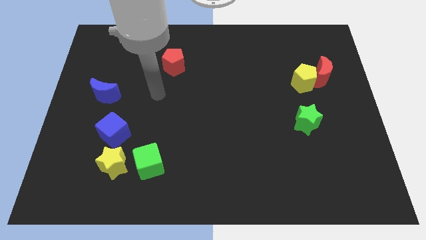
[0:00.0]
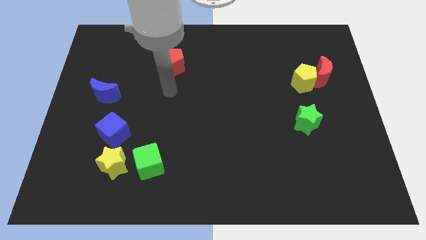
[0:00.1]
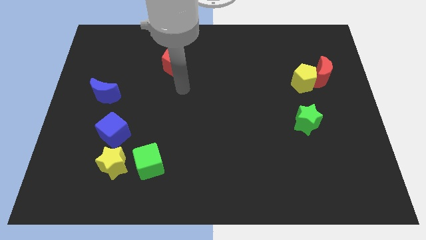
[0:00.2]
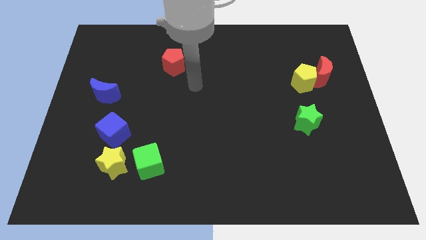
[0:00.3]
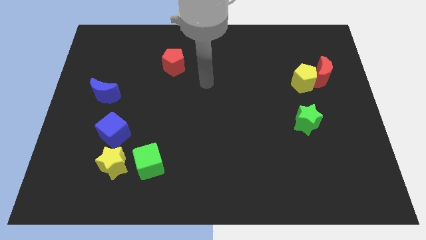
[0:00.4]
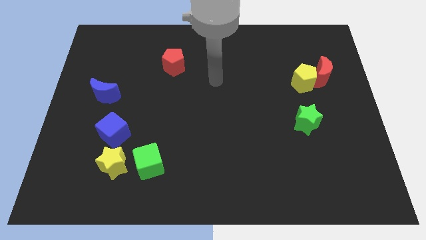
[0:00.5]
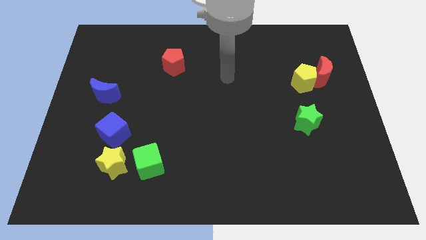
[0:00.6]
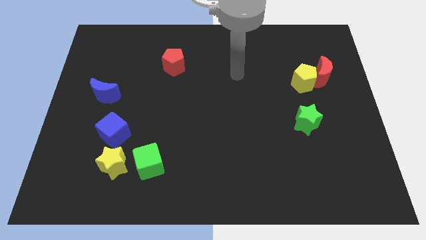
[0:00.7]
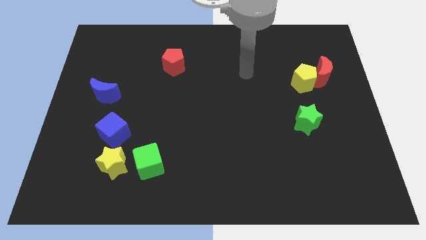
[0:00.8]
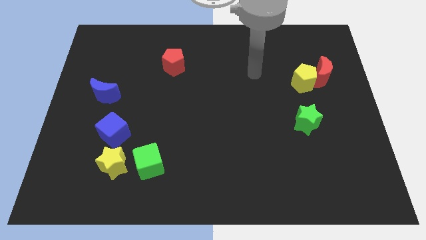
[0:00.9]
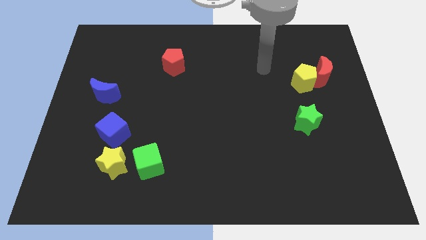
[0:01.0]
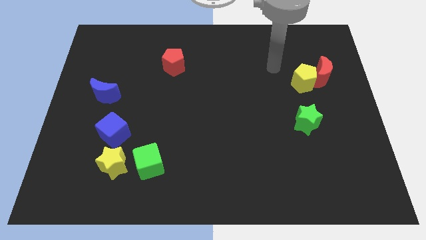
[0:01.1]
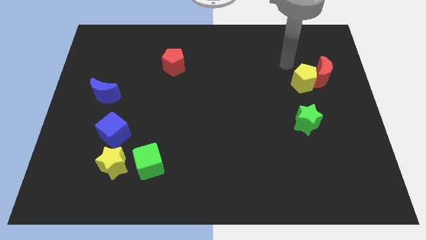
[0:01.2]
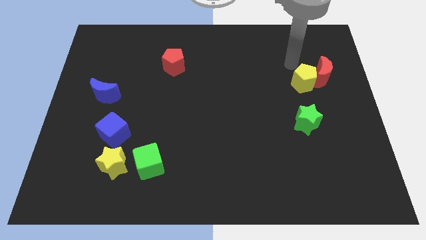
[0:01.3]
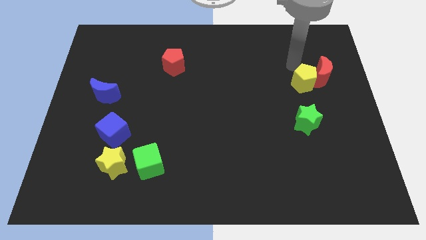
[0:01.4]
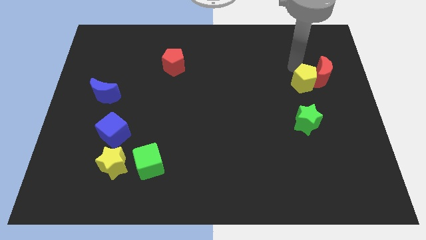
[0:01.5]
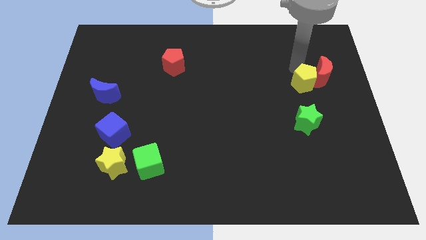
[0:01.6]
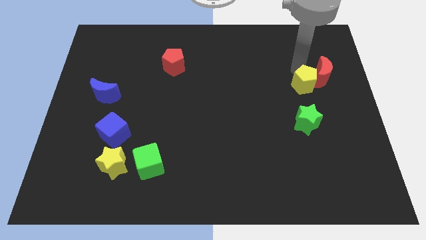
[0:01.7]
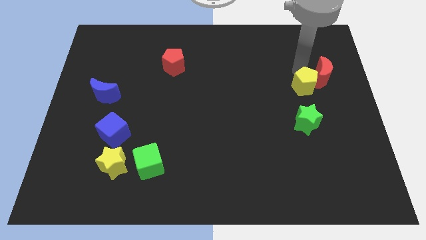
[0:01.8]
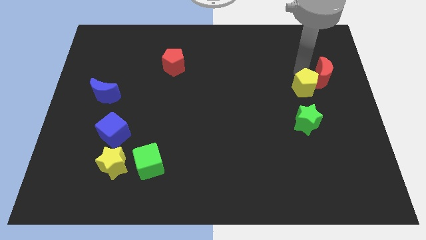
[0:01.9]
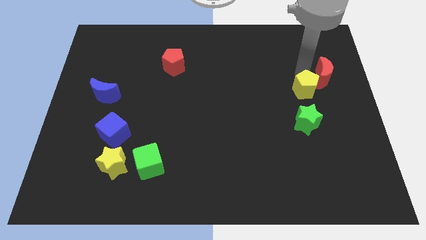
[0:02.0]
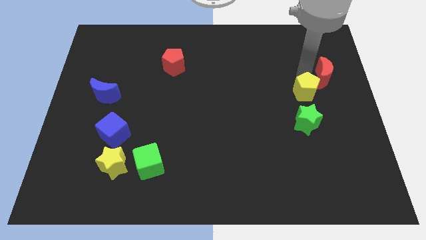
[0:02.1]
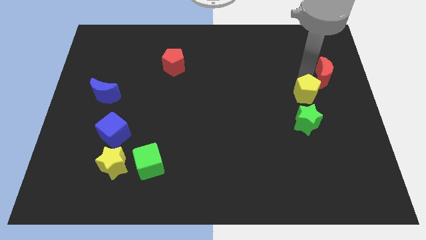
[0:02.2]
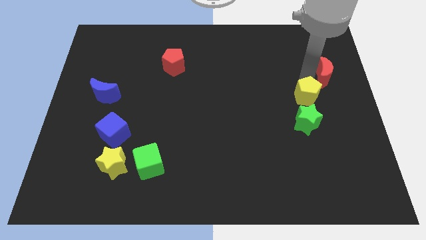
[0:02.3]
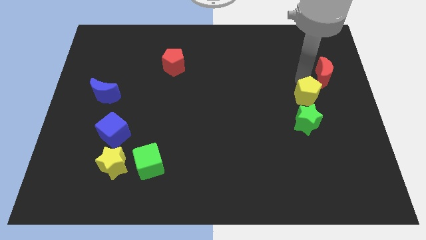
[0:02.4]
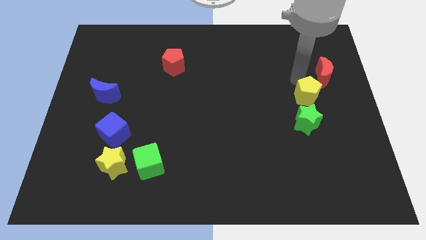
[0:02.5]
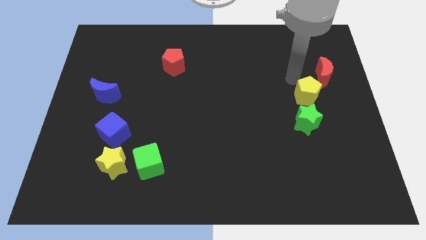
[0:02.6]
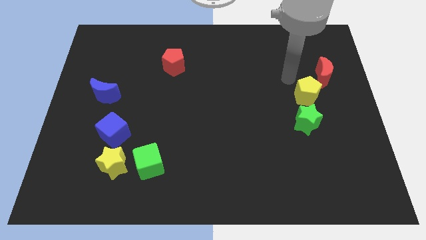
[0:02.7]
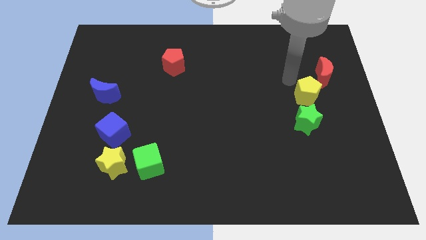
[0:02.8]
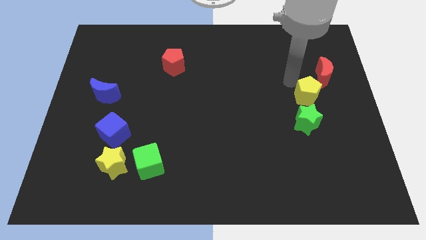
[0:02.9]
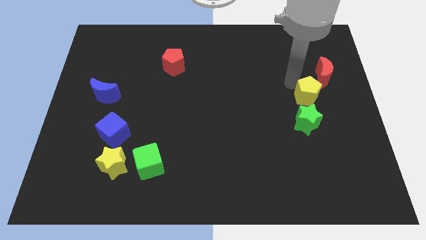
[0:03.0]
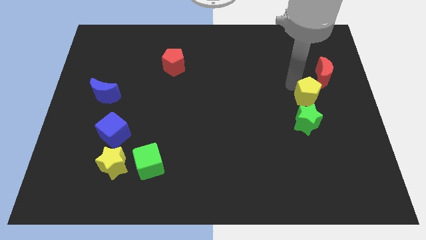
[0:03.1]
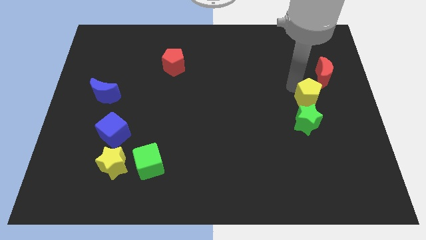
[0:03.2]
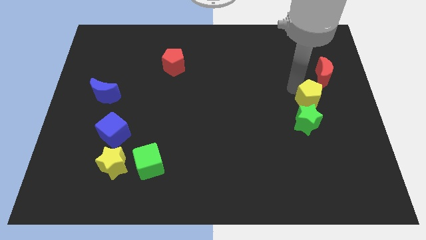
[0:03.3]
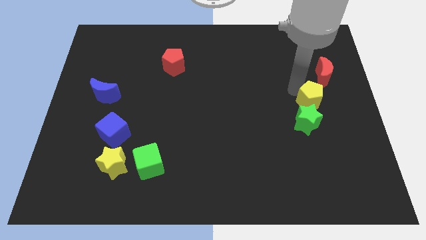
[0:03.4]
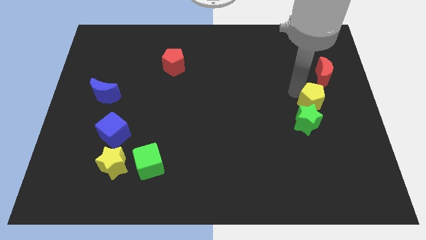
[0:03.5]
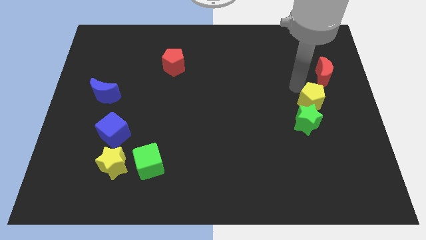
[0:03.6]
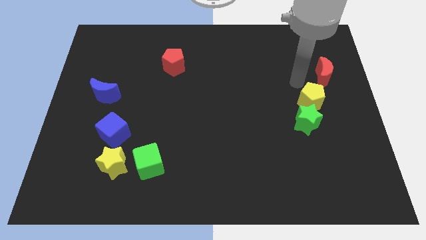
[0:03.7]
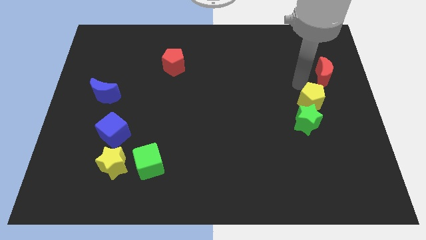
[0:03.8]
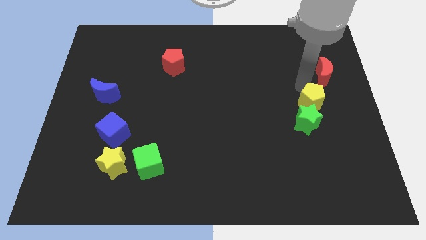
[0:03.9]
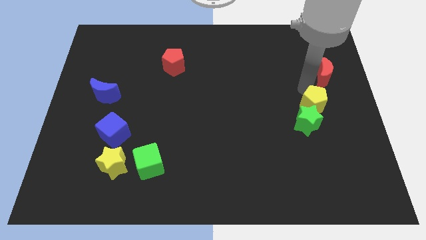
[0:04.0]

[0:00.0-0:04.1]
push the yellow pentagon a little downwards

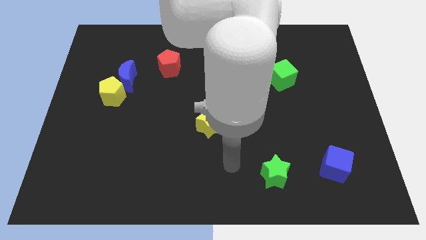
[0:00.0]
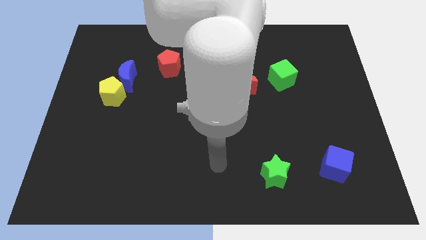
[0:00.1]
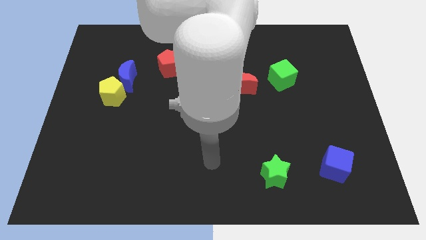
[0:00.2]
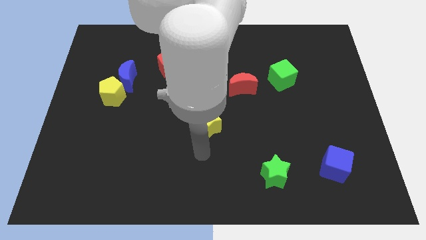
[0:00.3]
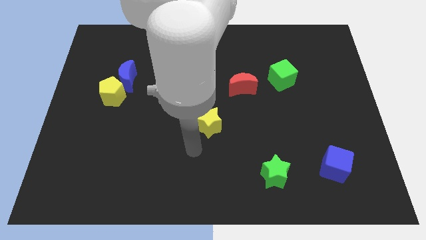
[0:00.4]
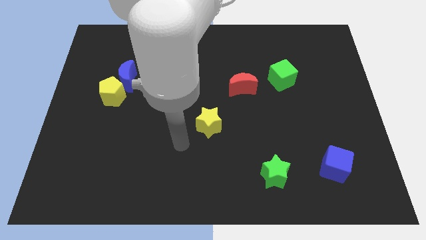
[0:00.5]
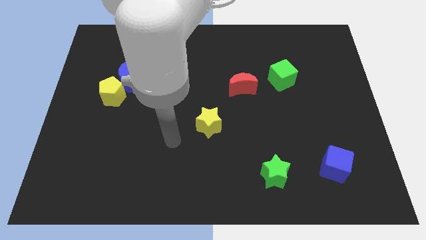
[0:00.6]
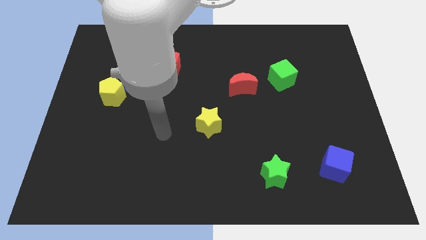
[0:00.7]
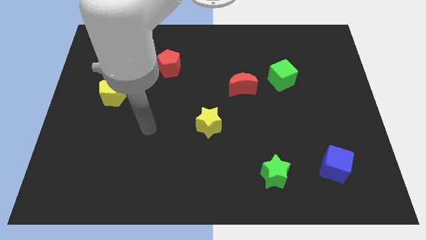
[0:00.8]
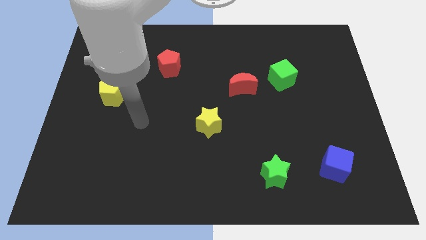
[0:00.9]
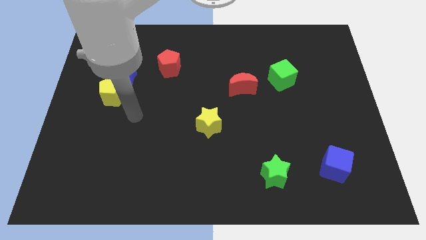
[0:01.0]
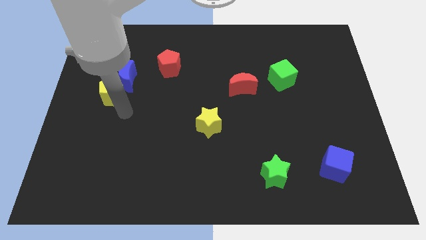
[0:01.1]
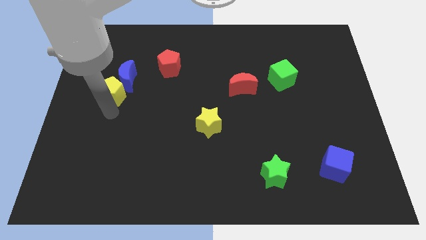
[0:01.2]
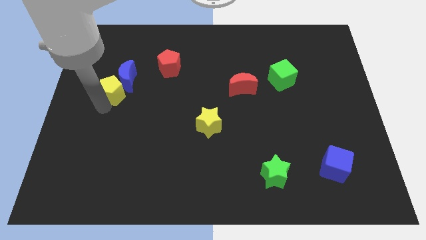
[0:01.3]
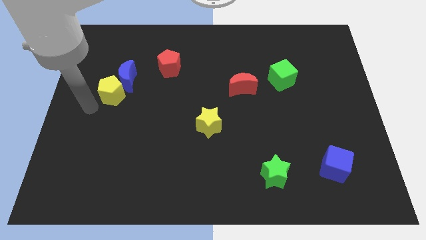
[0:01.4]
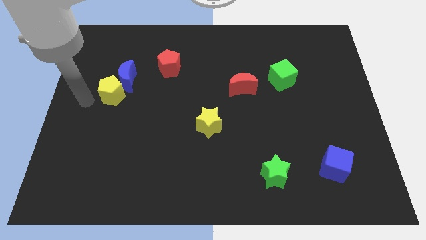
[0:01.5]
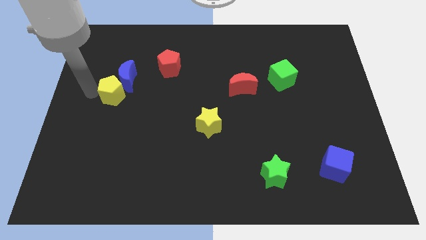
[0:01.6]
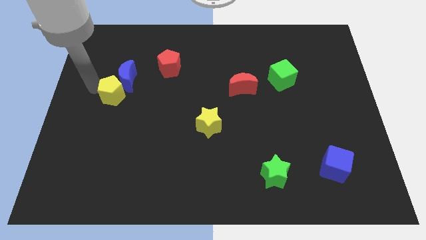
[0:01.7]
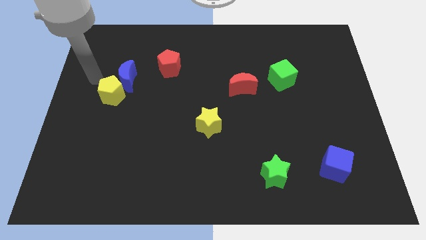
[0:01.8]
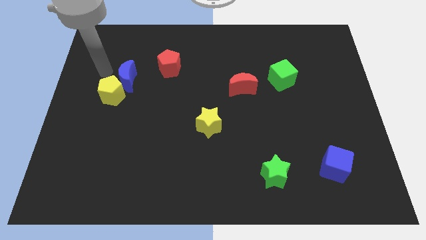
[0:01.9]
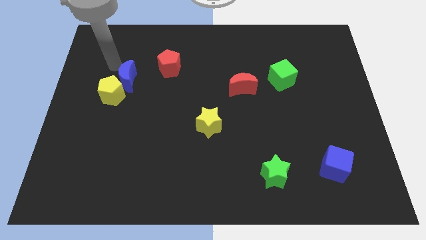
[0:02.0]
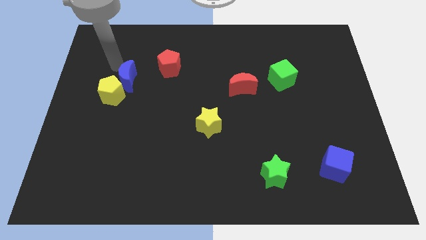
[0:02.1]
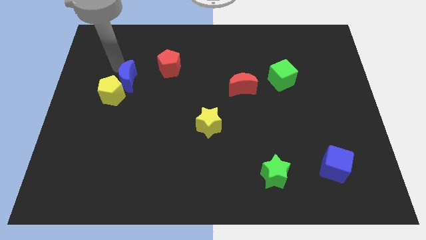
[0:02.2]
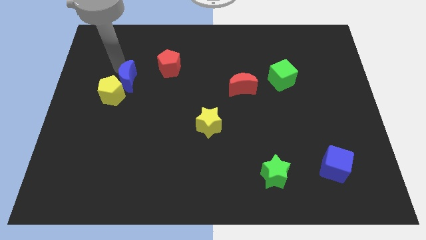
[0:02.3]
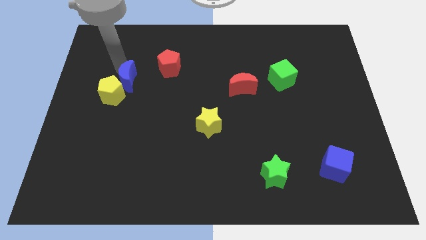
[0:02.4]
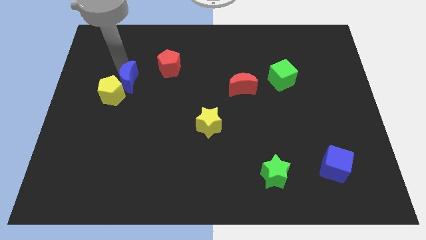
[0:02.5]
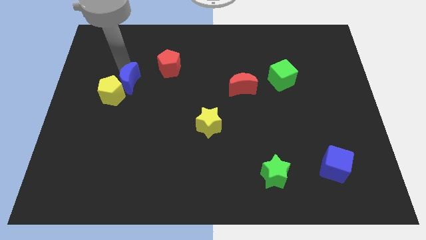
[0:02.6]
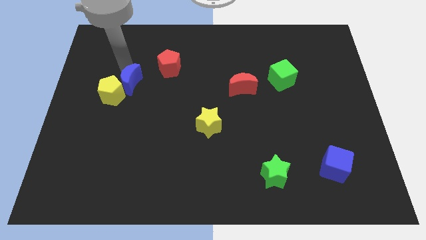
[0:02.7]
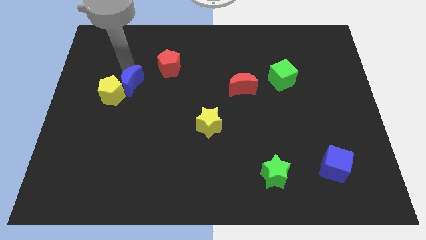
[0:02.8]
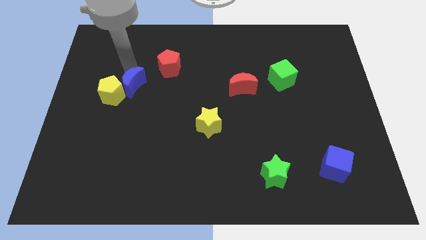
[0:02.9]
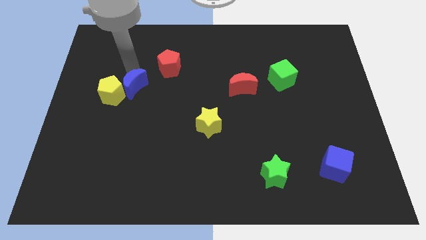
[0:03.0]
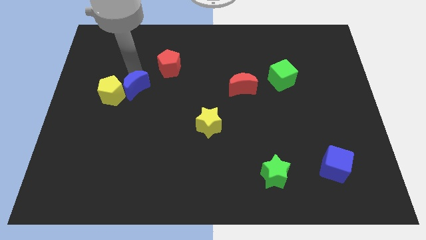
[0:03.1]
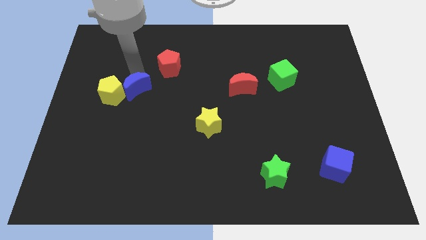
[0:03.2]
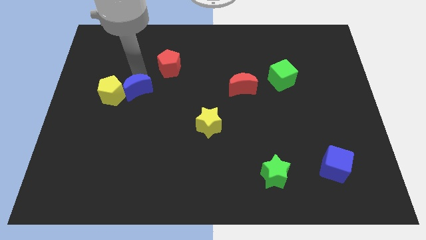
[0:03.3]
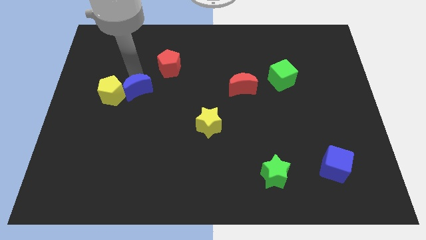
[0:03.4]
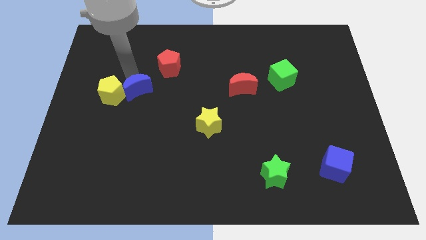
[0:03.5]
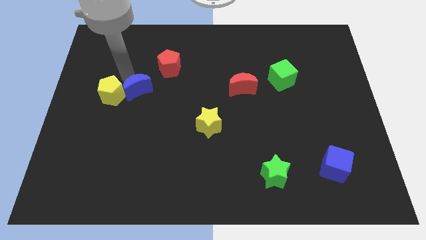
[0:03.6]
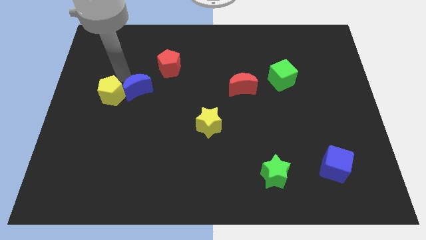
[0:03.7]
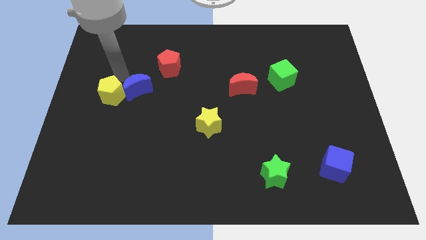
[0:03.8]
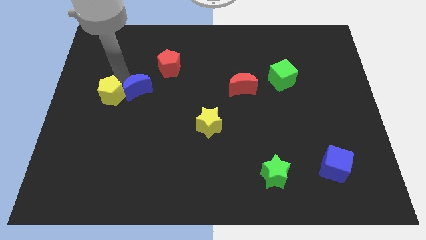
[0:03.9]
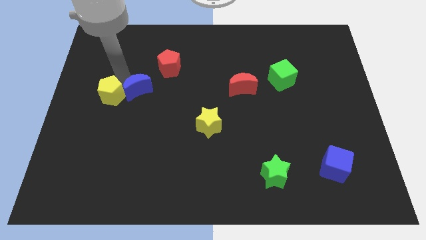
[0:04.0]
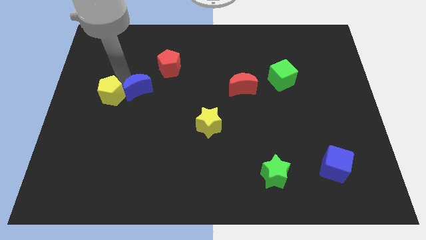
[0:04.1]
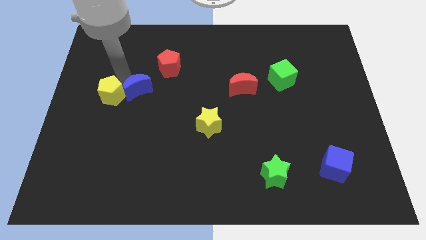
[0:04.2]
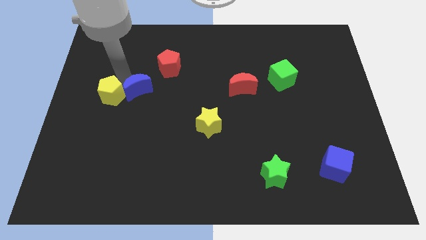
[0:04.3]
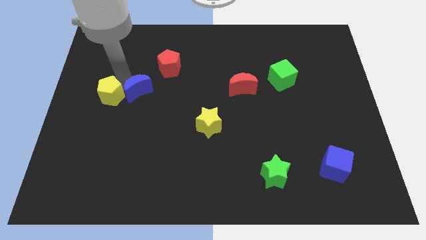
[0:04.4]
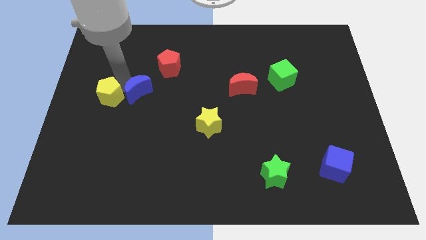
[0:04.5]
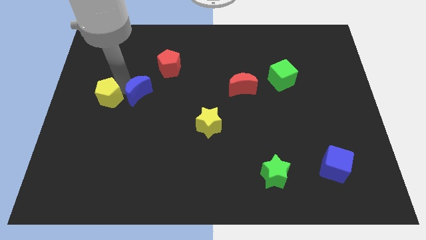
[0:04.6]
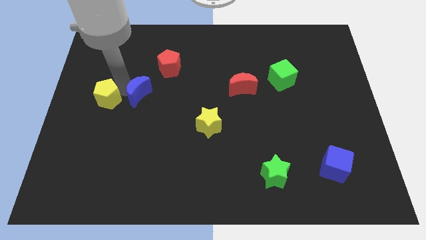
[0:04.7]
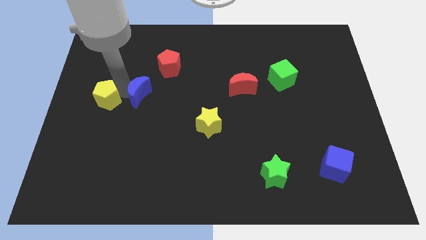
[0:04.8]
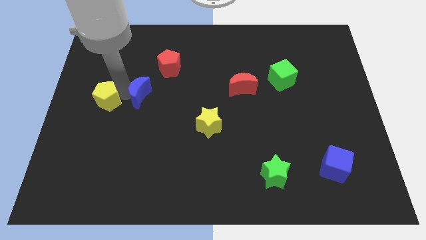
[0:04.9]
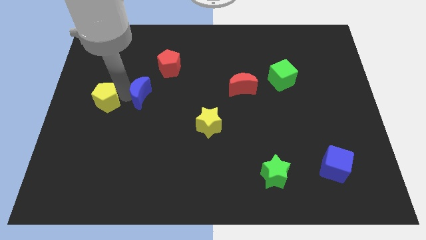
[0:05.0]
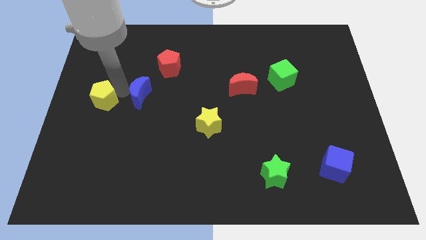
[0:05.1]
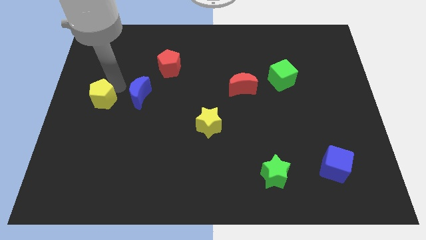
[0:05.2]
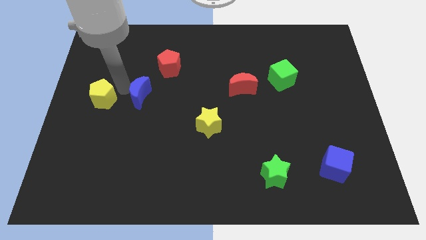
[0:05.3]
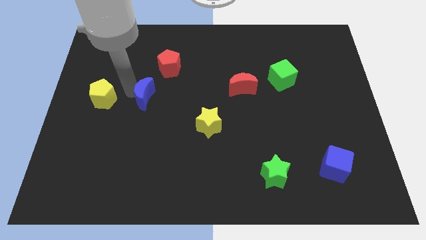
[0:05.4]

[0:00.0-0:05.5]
push the blue moon diagonally downwards and right slightly
